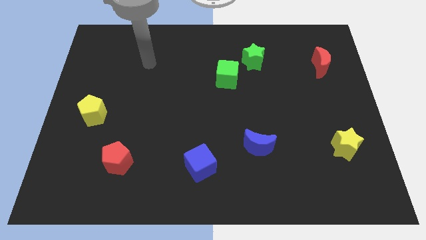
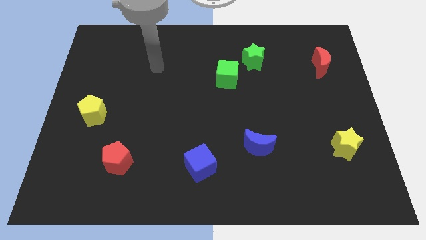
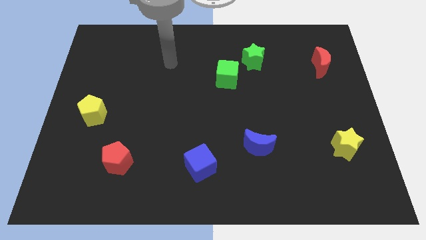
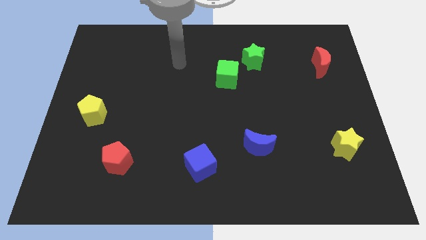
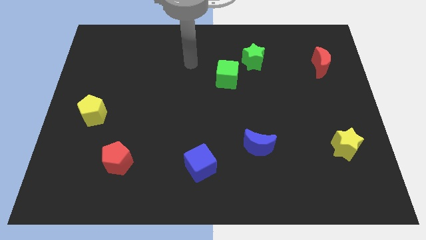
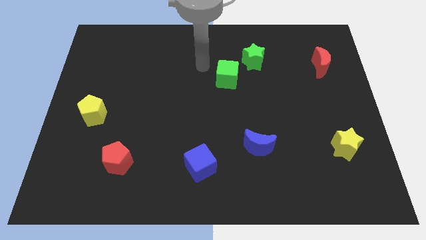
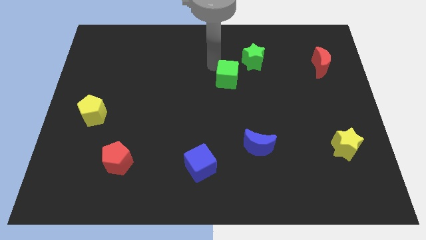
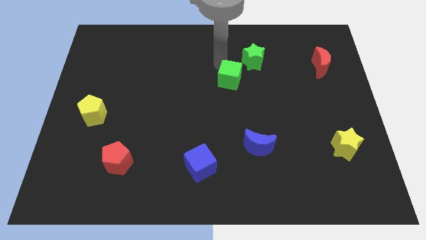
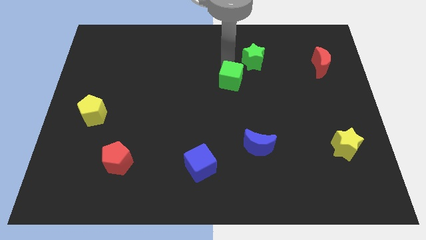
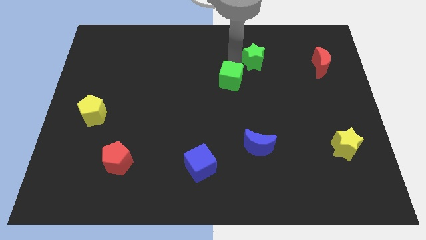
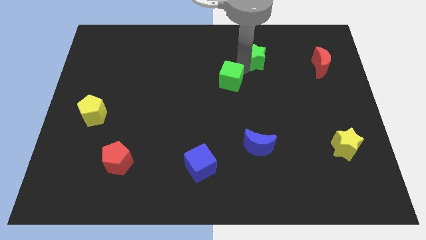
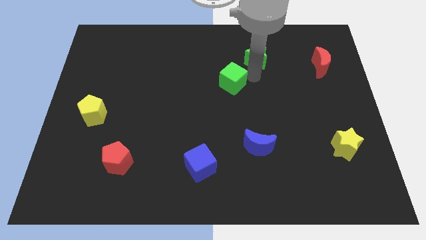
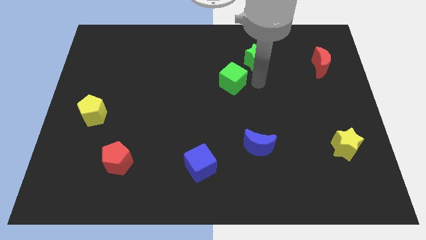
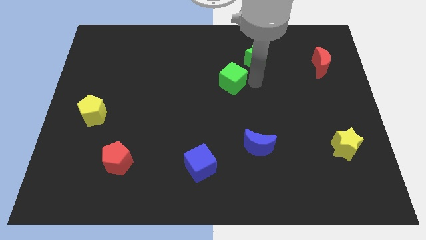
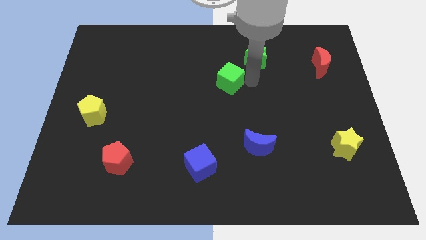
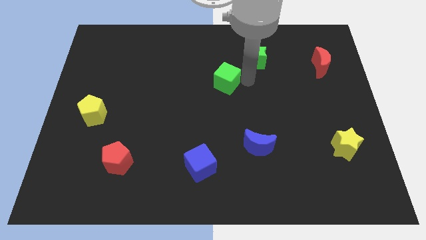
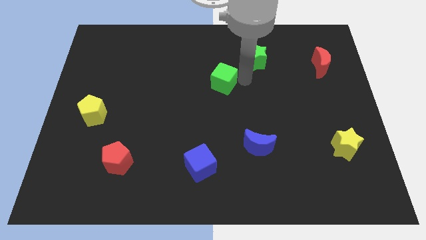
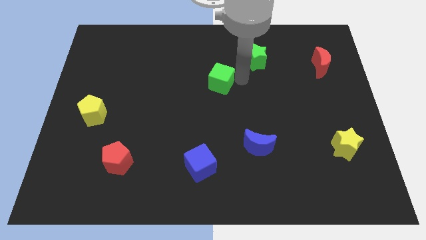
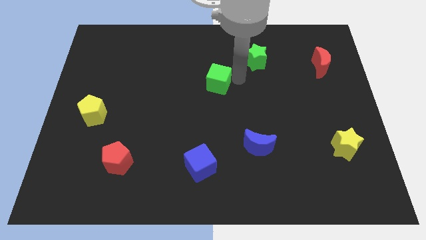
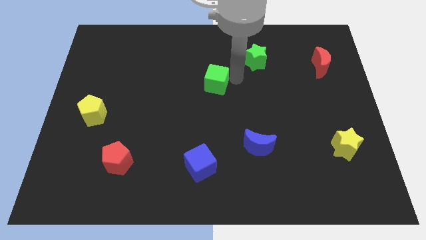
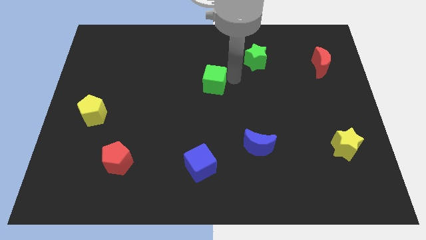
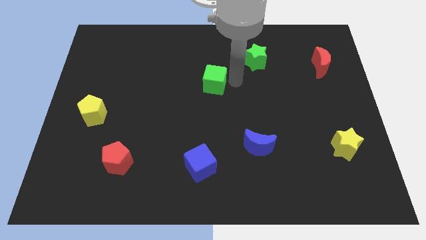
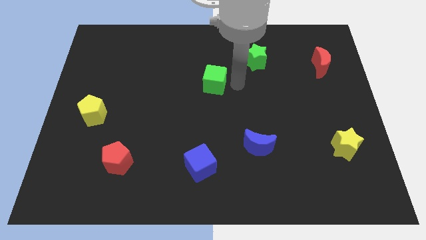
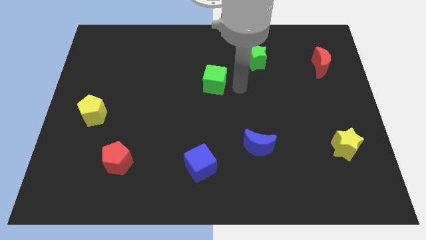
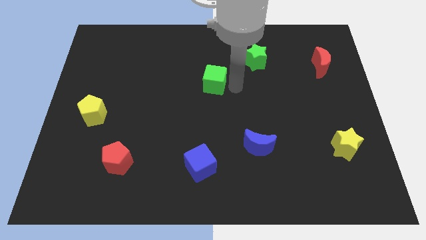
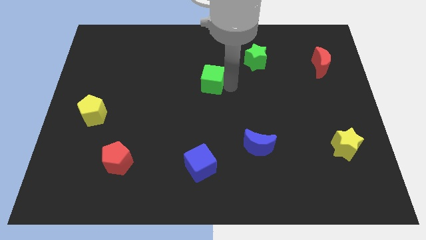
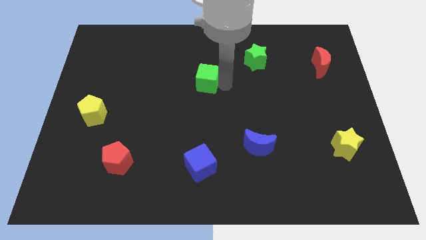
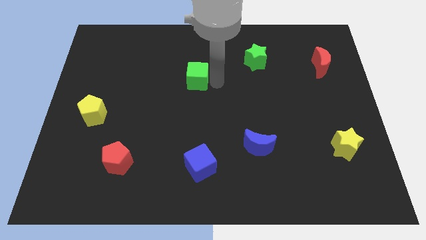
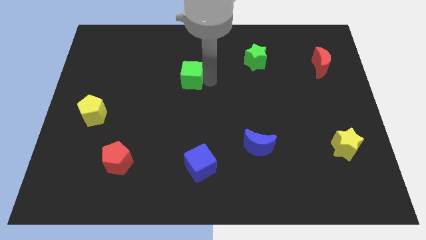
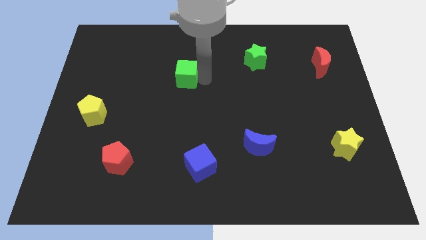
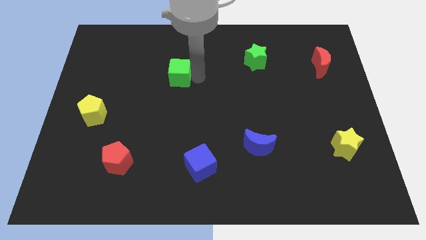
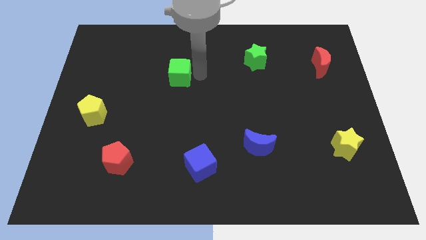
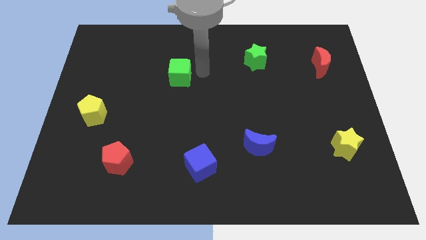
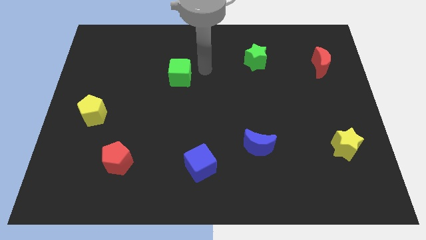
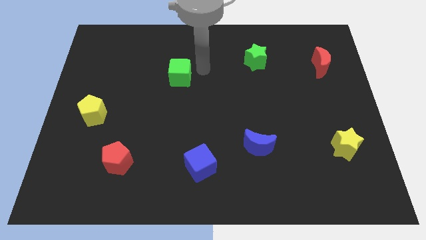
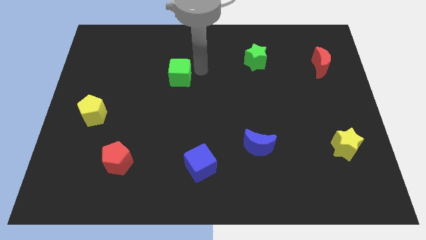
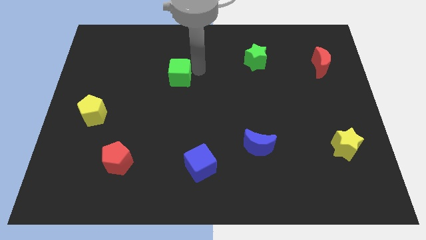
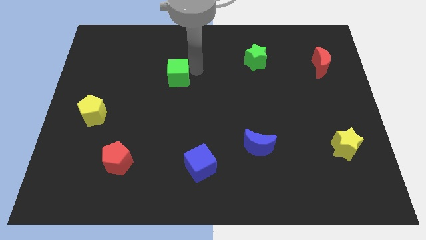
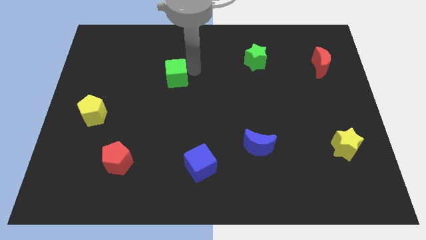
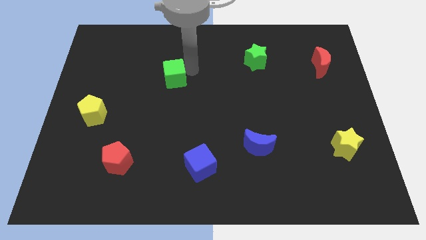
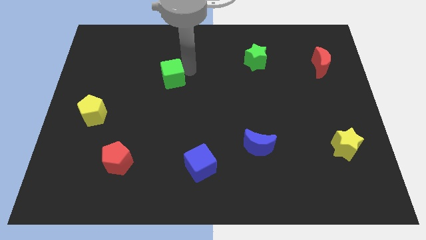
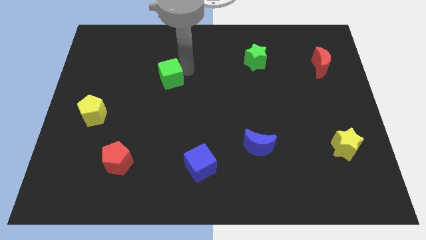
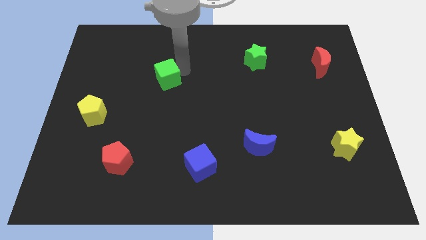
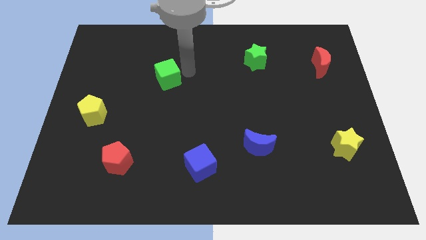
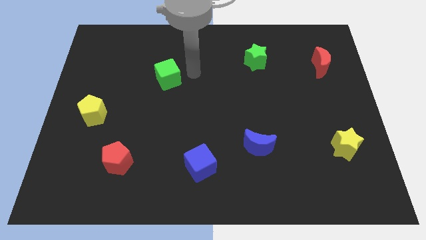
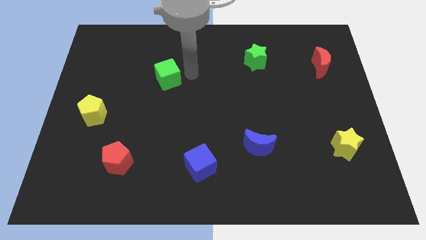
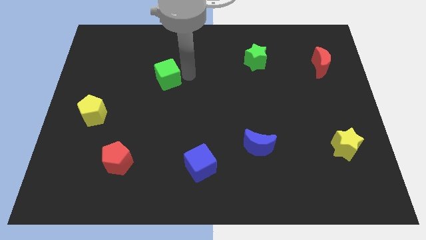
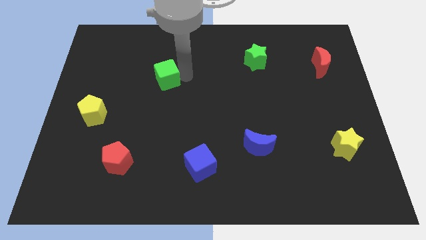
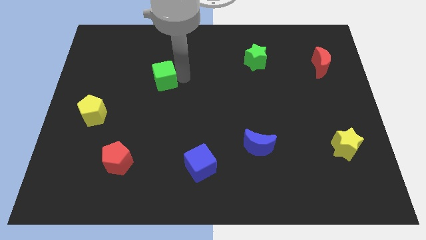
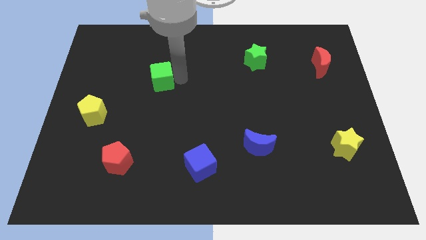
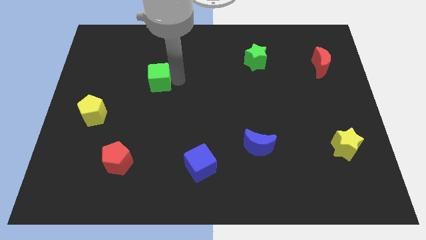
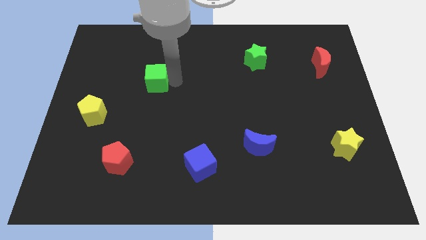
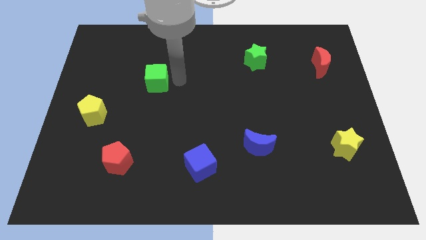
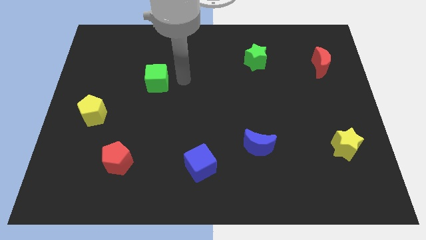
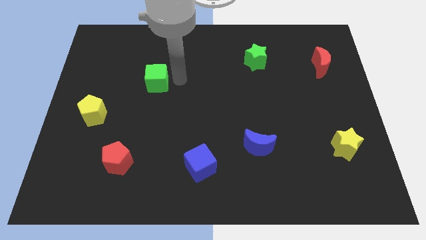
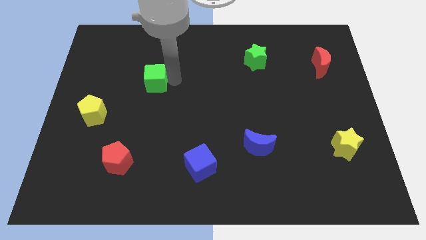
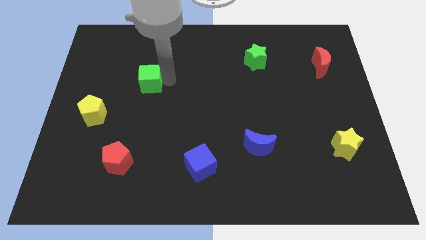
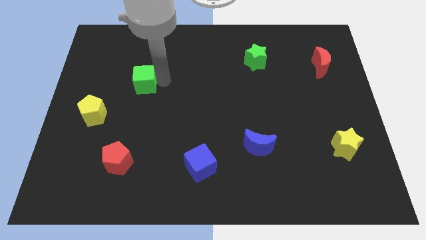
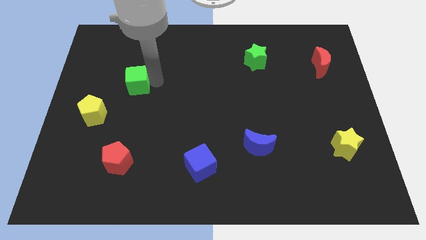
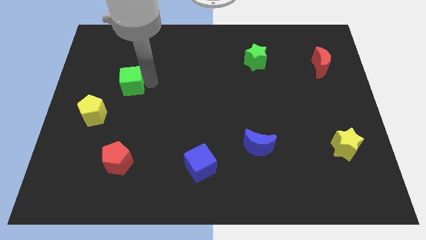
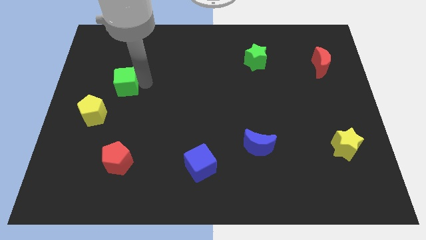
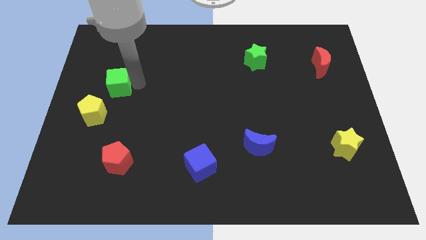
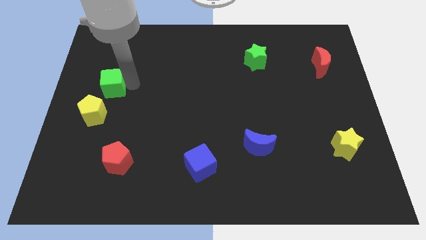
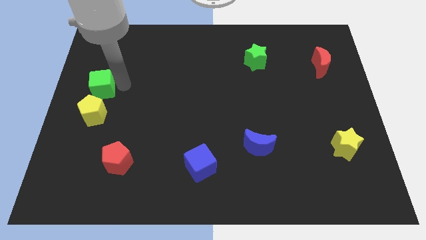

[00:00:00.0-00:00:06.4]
move the green cube to the center left
